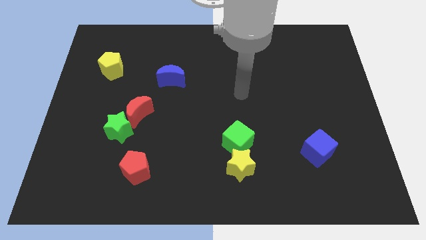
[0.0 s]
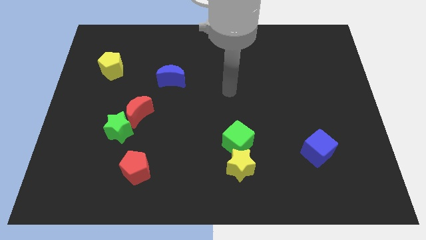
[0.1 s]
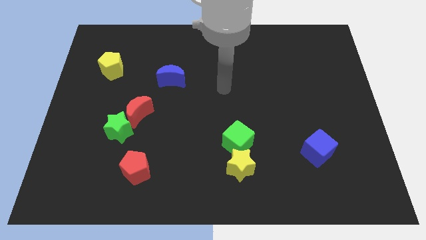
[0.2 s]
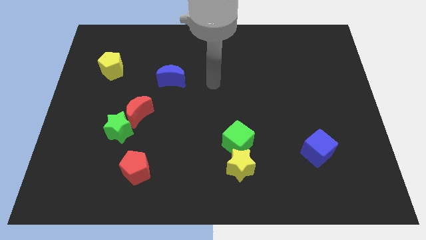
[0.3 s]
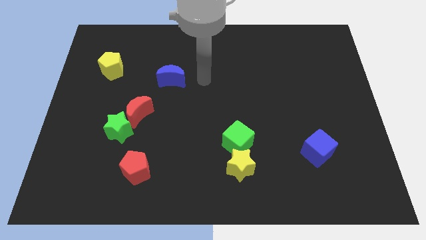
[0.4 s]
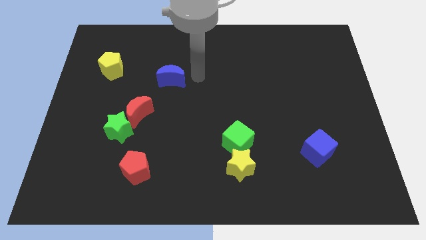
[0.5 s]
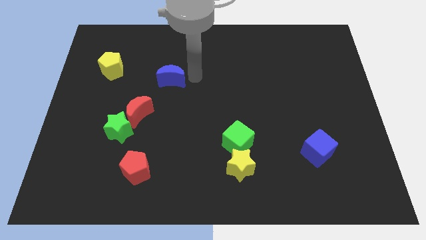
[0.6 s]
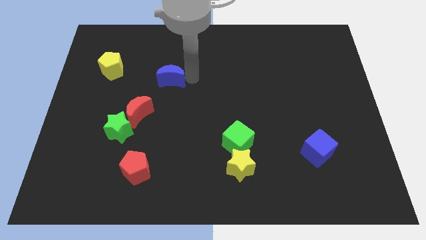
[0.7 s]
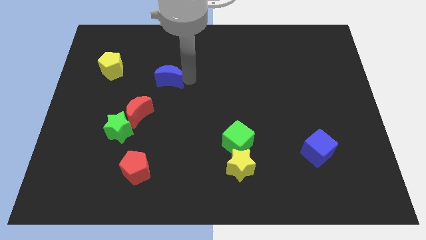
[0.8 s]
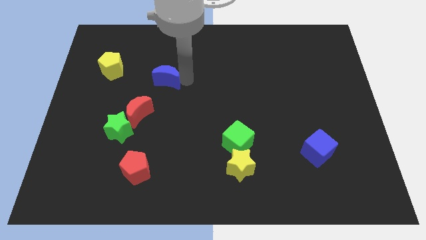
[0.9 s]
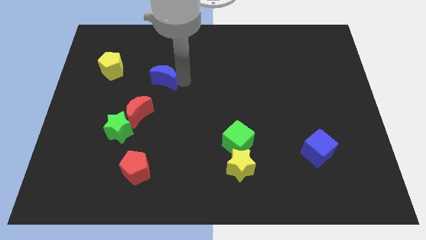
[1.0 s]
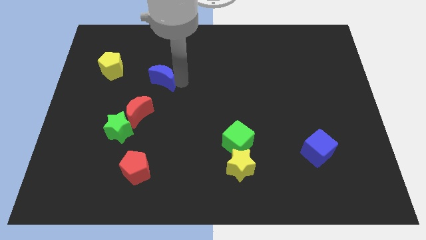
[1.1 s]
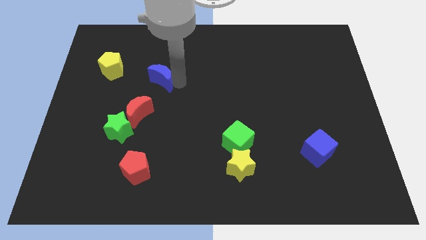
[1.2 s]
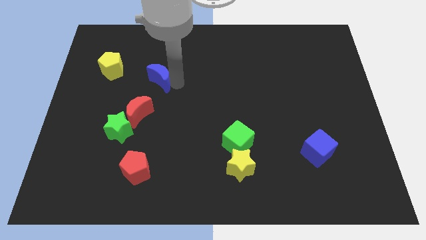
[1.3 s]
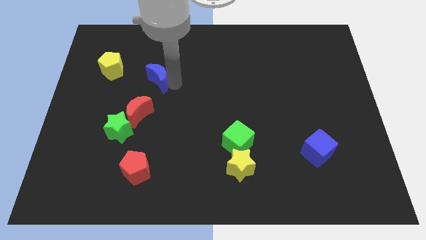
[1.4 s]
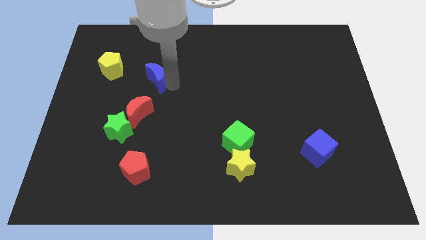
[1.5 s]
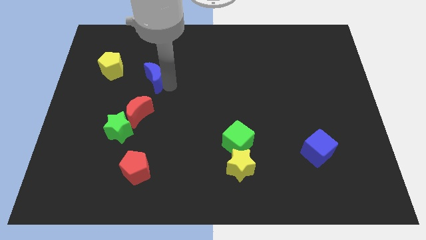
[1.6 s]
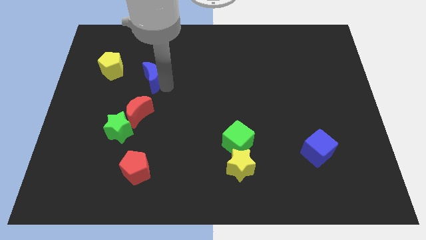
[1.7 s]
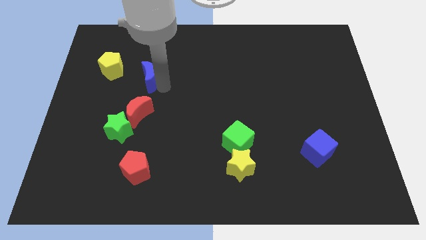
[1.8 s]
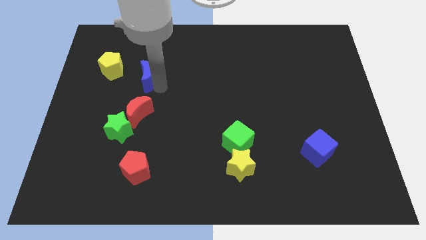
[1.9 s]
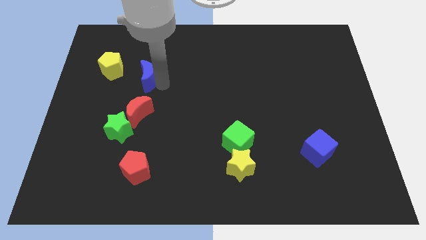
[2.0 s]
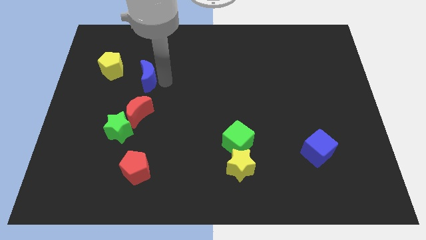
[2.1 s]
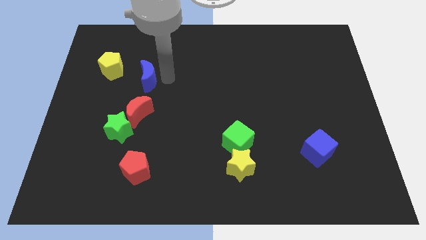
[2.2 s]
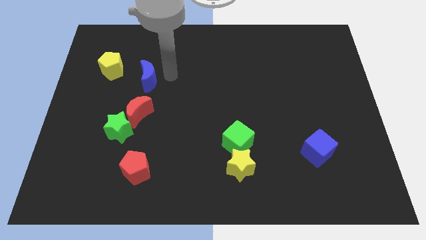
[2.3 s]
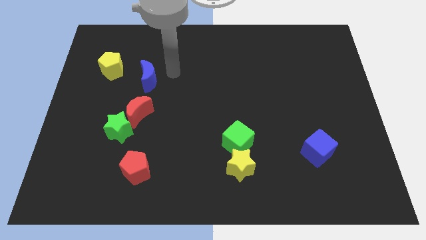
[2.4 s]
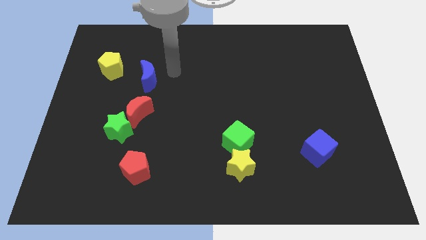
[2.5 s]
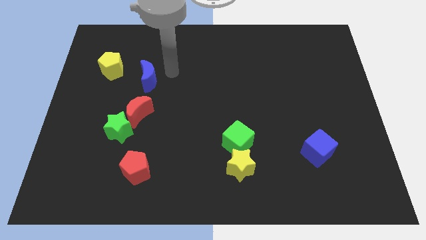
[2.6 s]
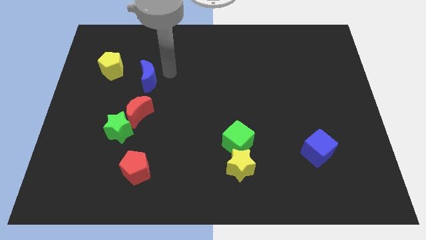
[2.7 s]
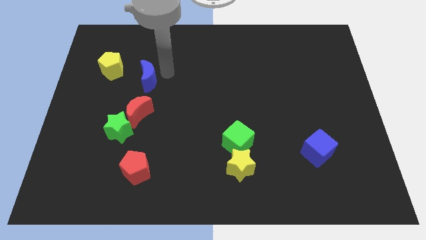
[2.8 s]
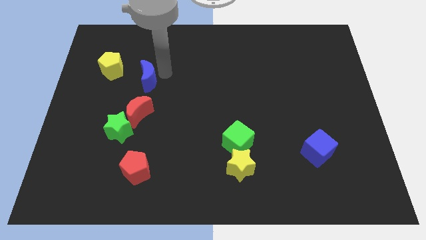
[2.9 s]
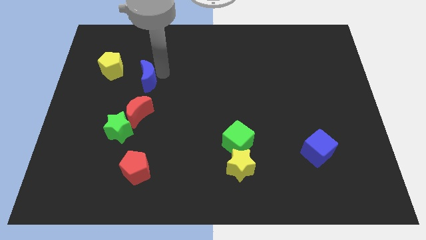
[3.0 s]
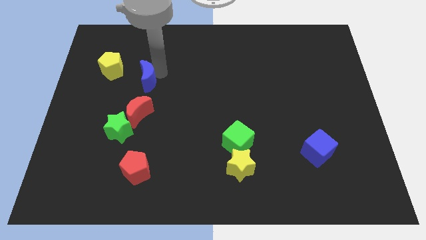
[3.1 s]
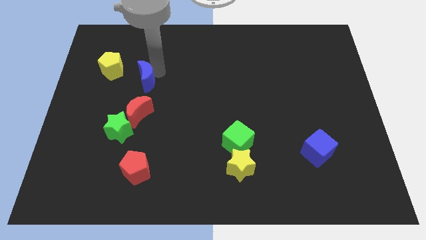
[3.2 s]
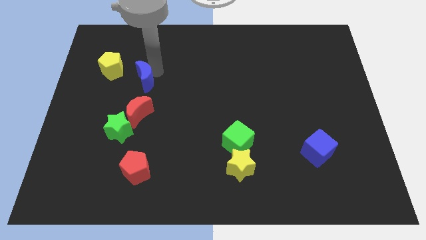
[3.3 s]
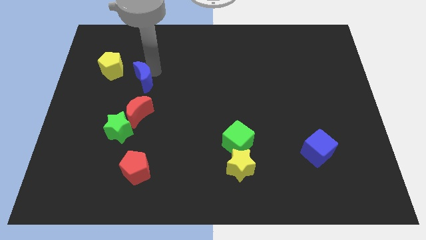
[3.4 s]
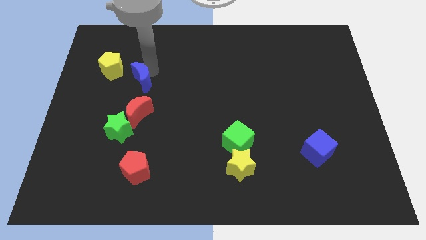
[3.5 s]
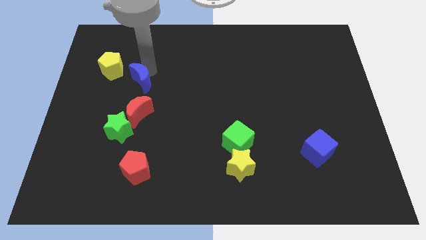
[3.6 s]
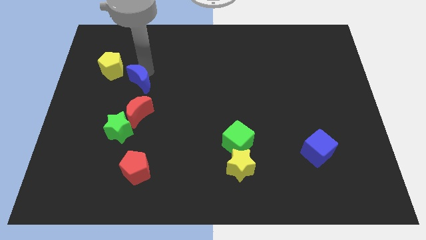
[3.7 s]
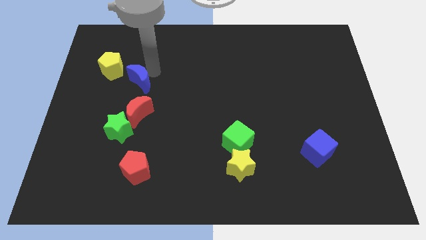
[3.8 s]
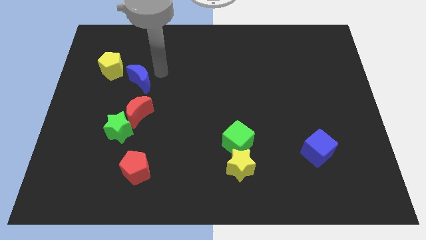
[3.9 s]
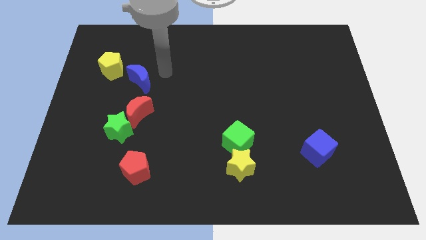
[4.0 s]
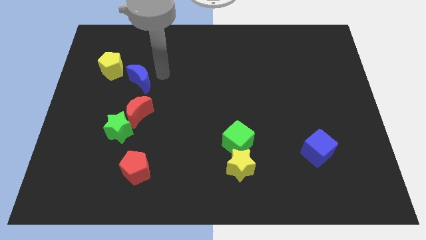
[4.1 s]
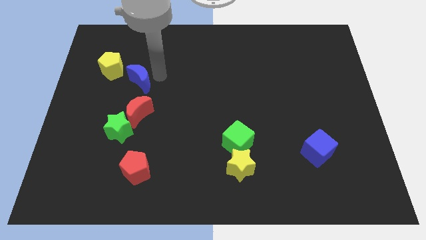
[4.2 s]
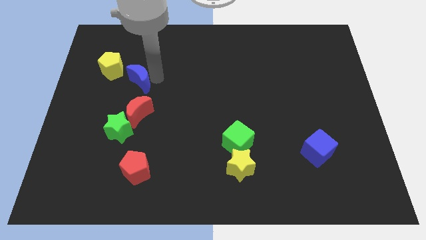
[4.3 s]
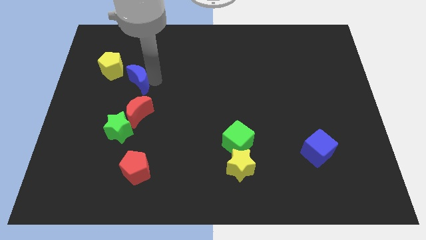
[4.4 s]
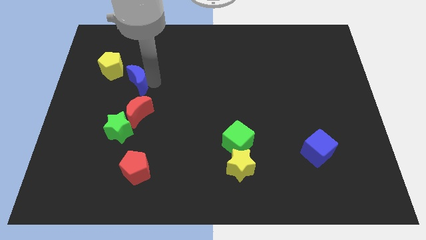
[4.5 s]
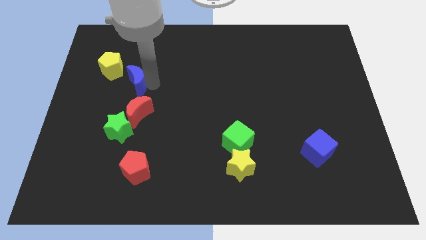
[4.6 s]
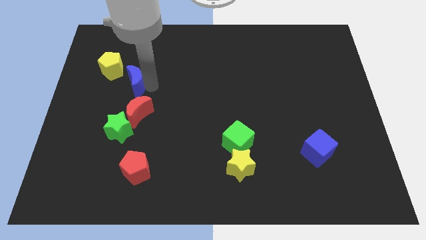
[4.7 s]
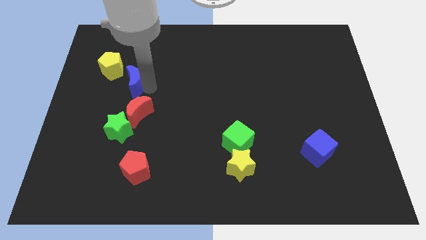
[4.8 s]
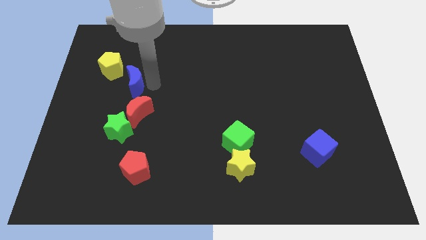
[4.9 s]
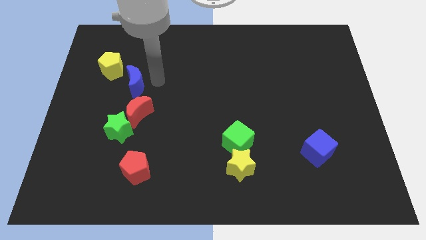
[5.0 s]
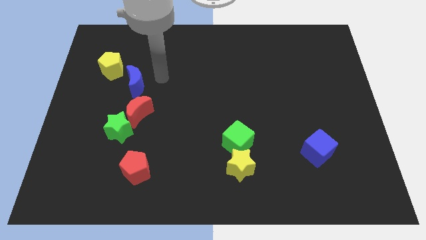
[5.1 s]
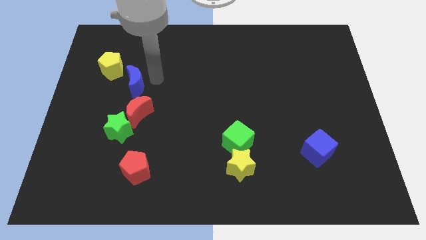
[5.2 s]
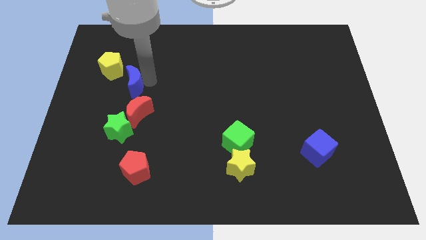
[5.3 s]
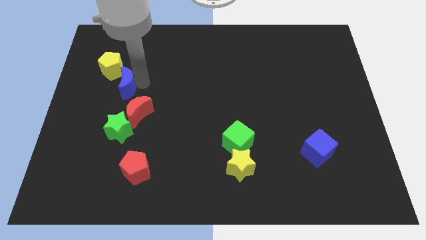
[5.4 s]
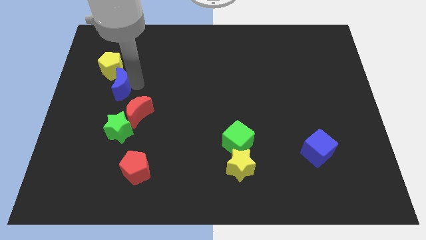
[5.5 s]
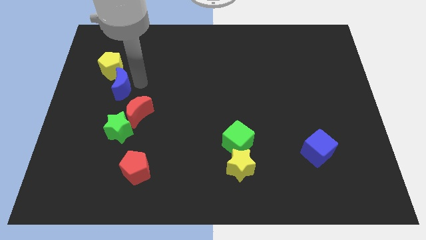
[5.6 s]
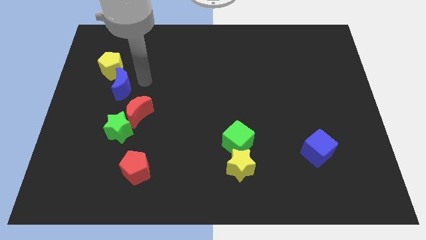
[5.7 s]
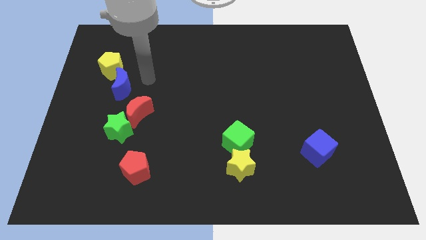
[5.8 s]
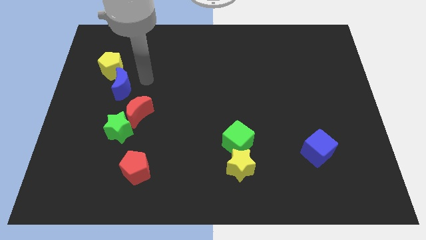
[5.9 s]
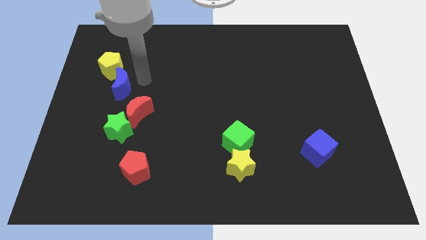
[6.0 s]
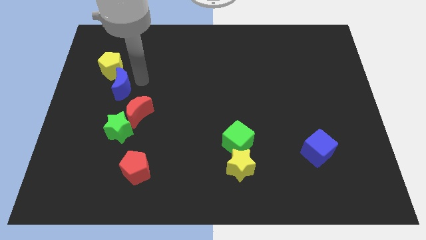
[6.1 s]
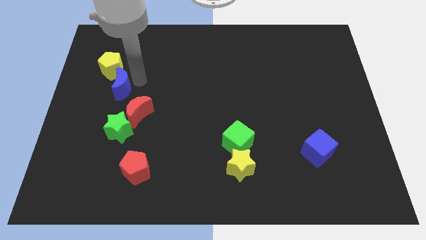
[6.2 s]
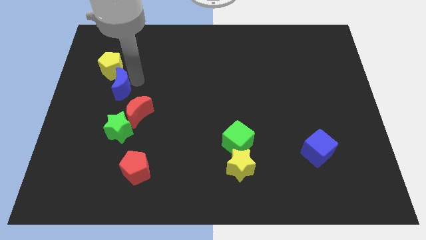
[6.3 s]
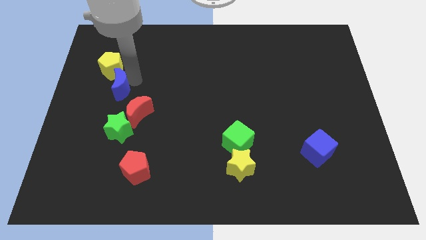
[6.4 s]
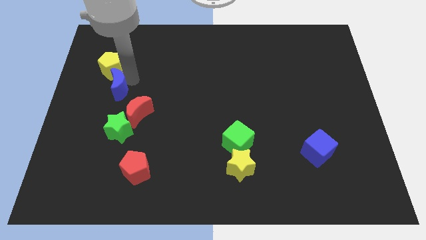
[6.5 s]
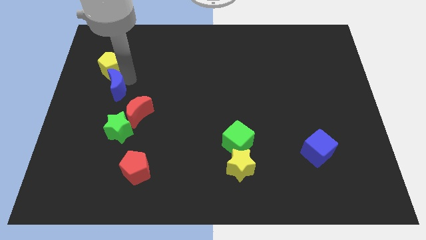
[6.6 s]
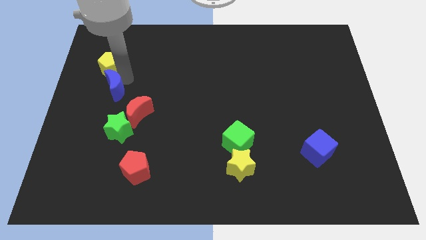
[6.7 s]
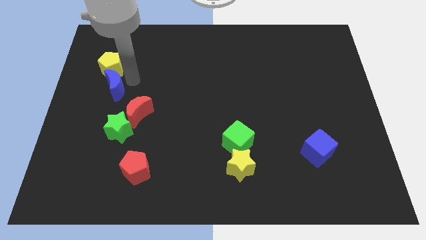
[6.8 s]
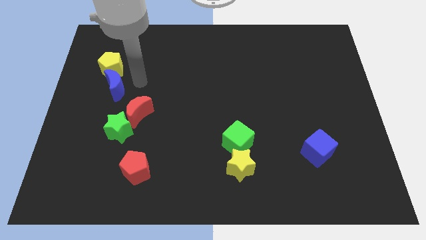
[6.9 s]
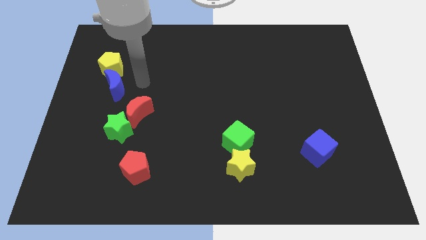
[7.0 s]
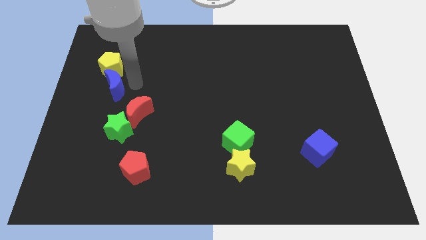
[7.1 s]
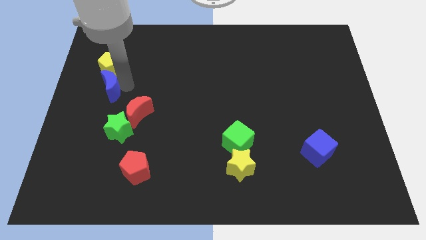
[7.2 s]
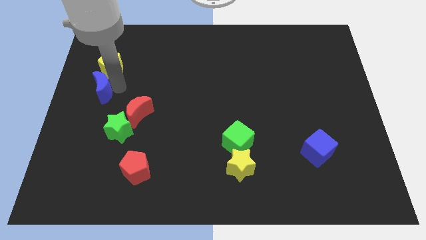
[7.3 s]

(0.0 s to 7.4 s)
push the blue moon to the left side
